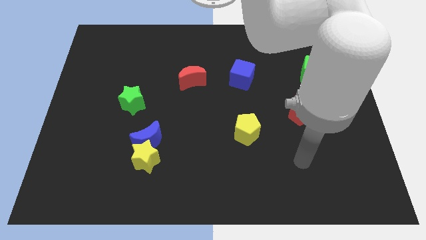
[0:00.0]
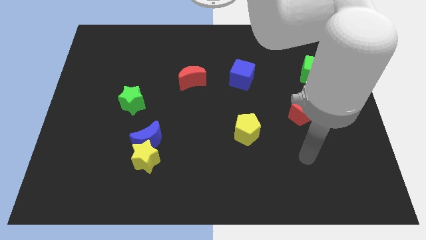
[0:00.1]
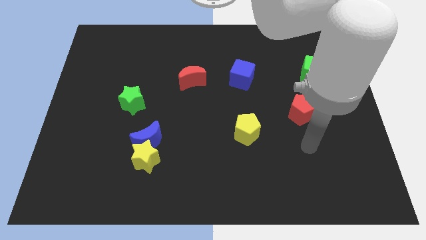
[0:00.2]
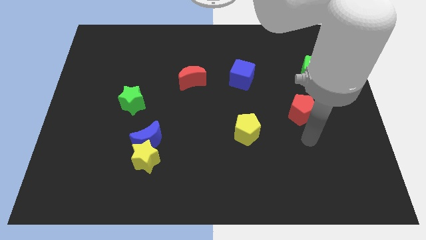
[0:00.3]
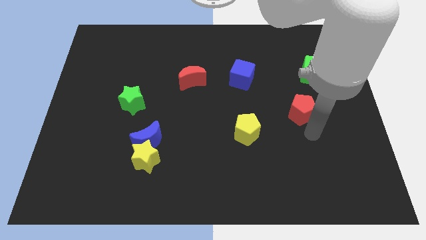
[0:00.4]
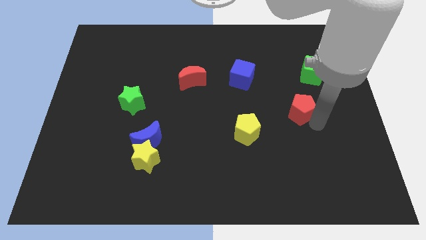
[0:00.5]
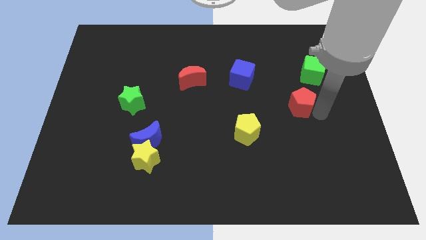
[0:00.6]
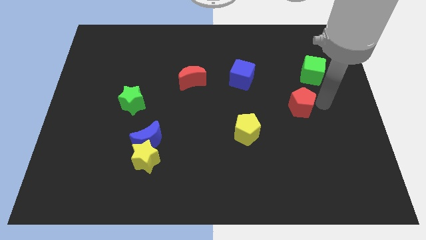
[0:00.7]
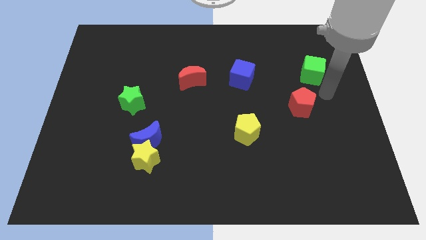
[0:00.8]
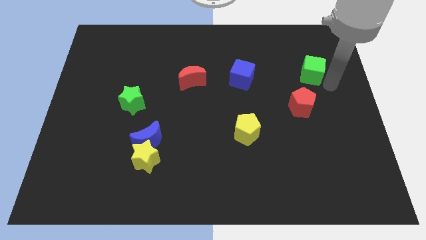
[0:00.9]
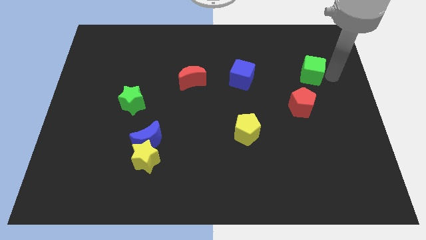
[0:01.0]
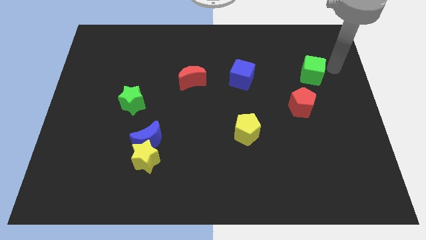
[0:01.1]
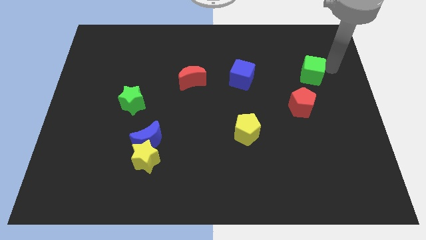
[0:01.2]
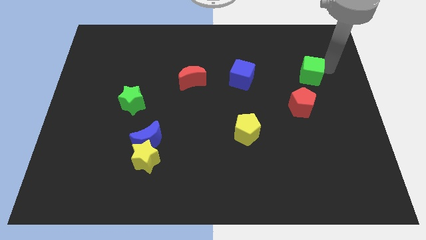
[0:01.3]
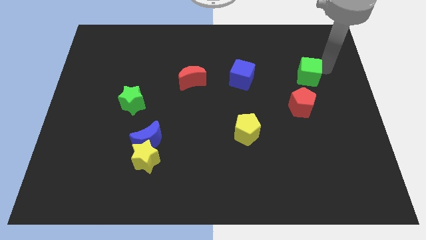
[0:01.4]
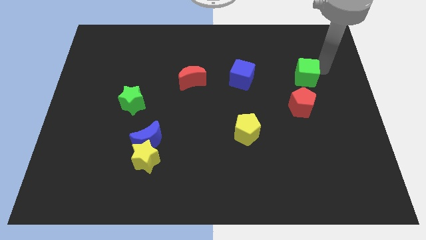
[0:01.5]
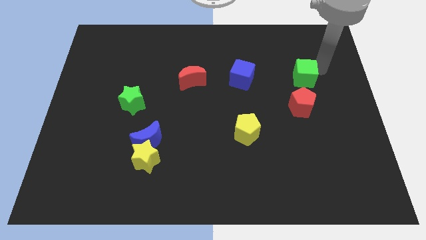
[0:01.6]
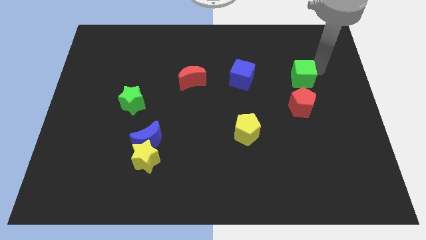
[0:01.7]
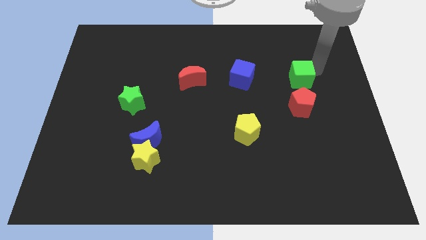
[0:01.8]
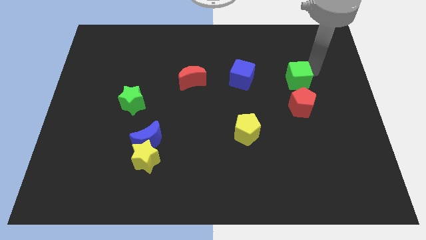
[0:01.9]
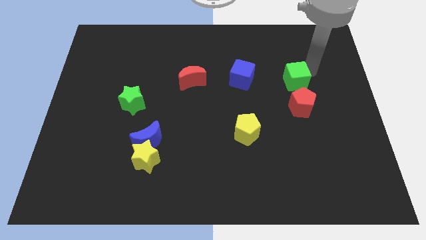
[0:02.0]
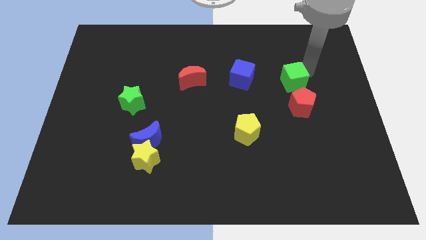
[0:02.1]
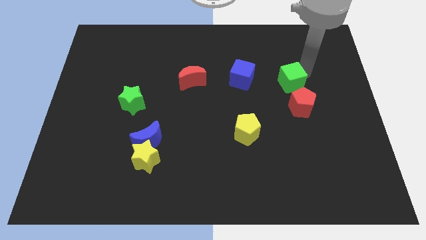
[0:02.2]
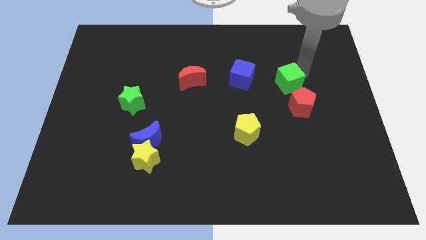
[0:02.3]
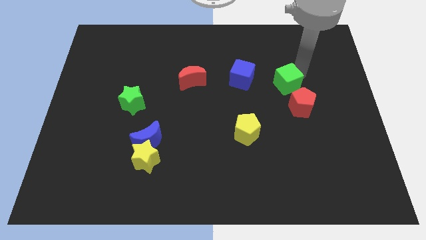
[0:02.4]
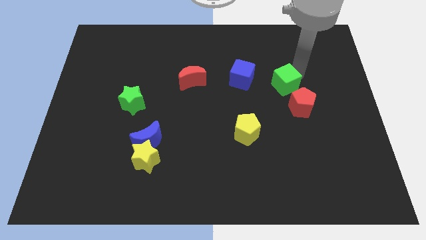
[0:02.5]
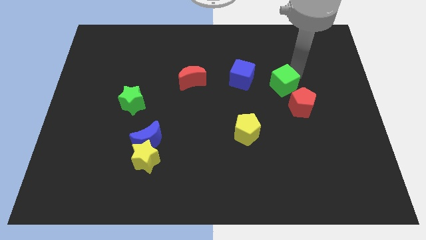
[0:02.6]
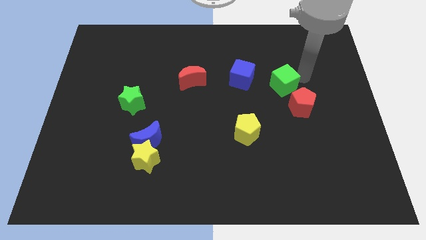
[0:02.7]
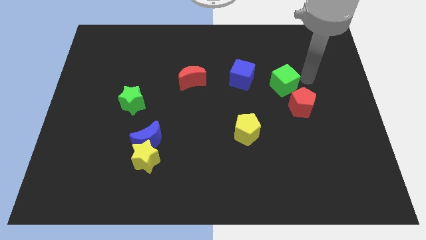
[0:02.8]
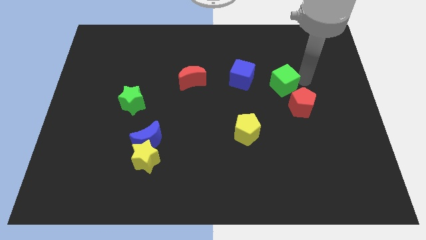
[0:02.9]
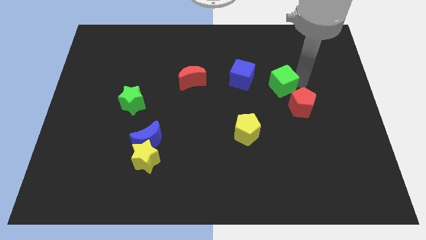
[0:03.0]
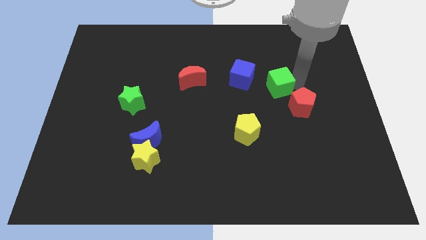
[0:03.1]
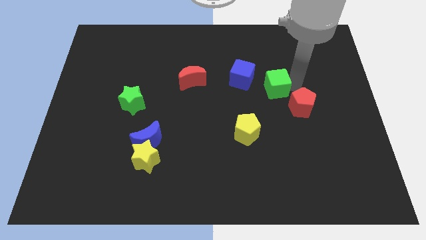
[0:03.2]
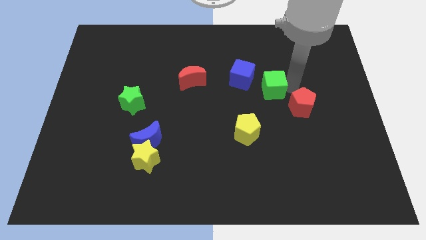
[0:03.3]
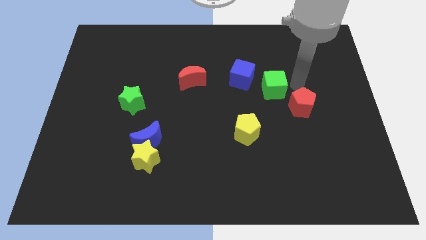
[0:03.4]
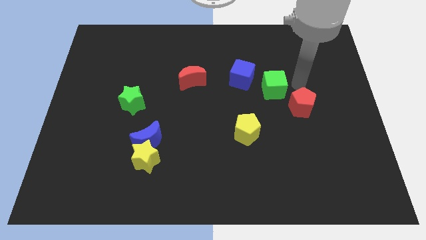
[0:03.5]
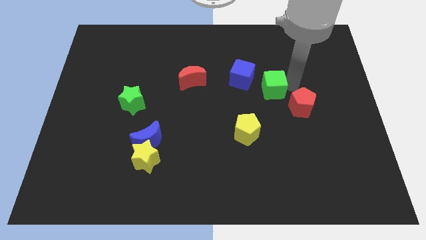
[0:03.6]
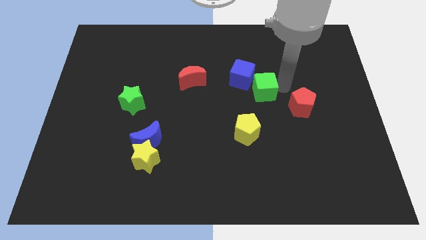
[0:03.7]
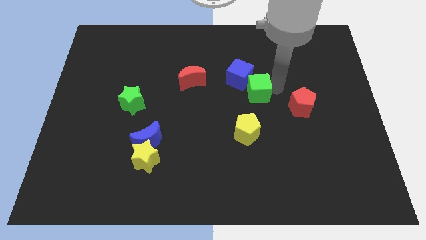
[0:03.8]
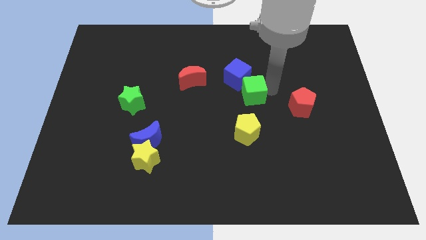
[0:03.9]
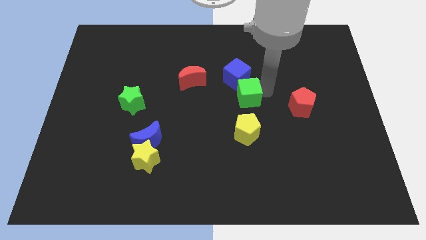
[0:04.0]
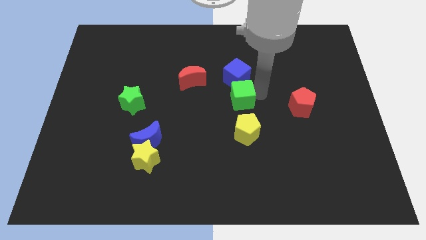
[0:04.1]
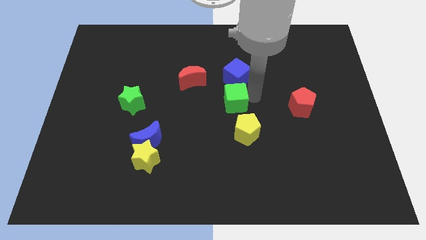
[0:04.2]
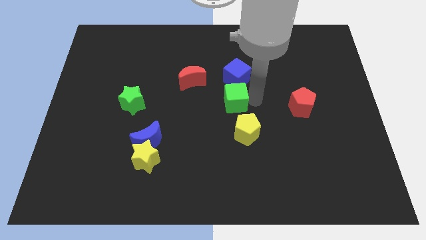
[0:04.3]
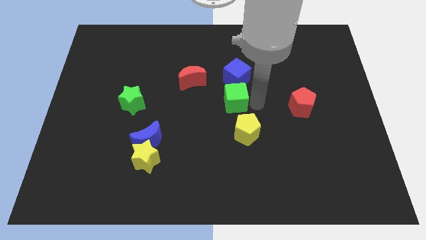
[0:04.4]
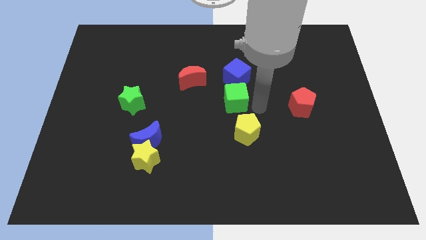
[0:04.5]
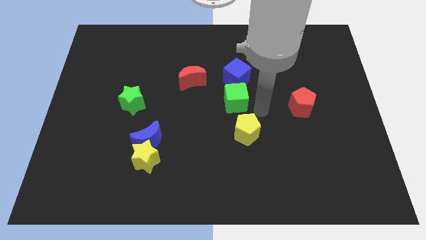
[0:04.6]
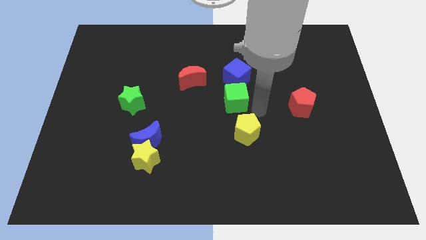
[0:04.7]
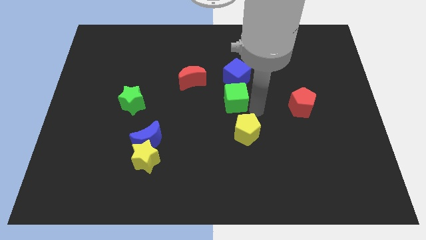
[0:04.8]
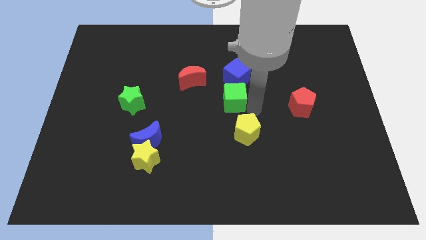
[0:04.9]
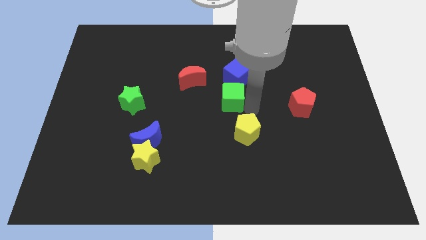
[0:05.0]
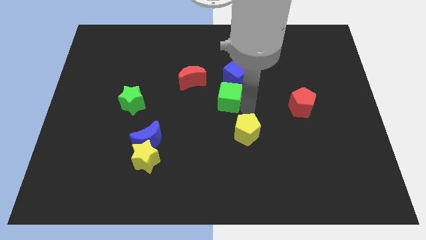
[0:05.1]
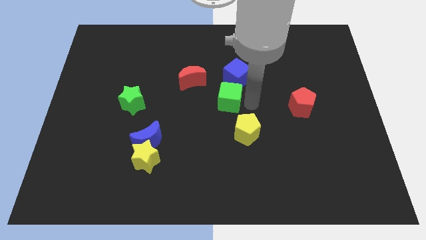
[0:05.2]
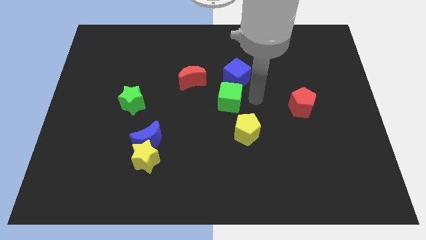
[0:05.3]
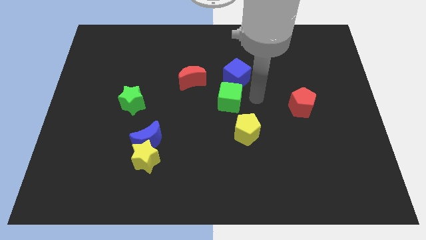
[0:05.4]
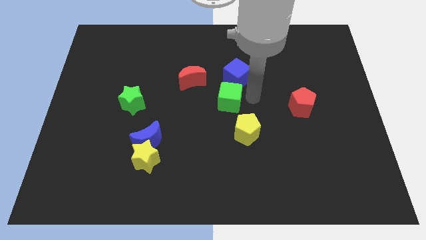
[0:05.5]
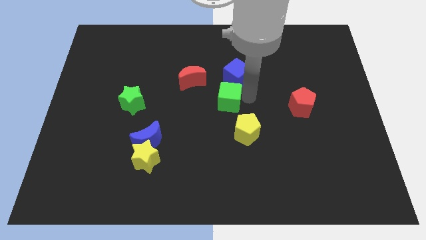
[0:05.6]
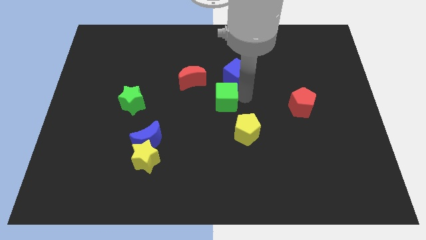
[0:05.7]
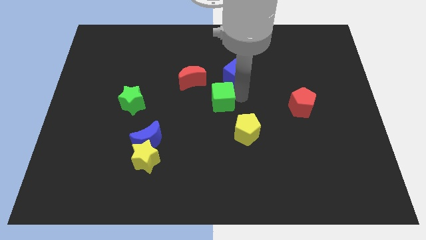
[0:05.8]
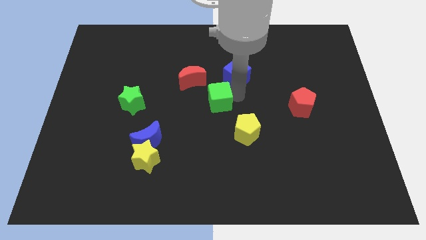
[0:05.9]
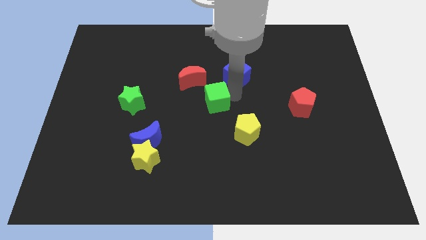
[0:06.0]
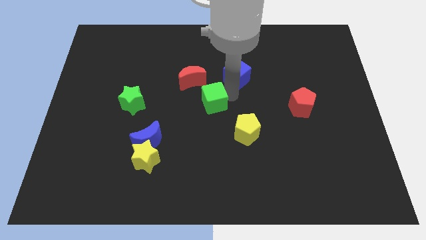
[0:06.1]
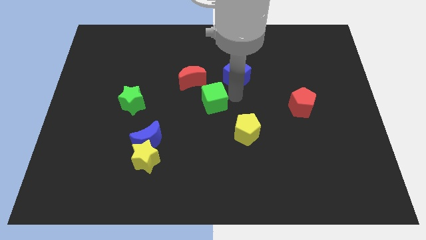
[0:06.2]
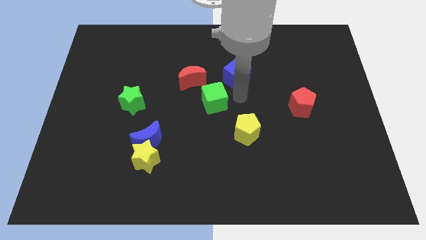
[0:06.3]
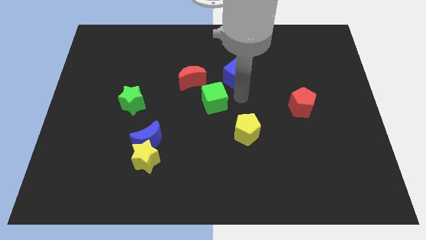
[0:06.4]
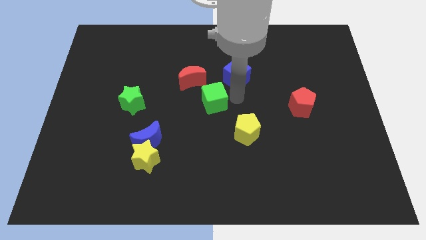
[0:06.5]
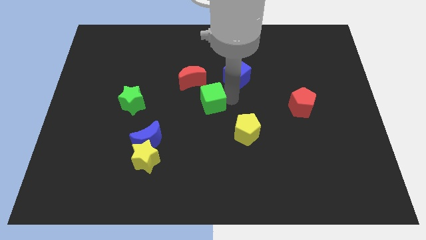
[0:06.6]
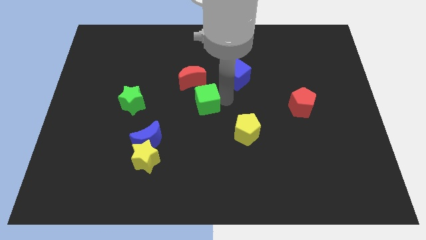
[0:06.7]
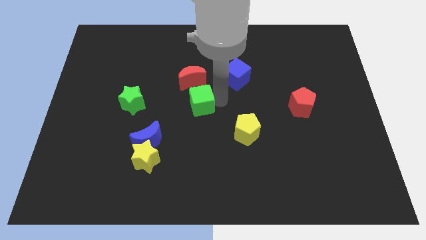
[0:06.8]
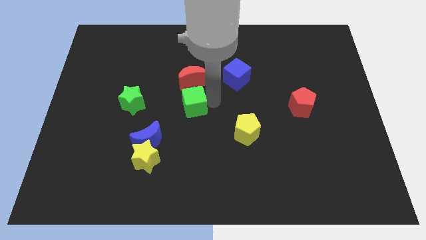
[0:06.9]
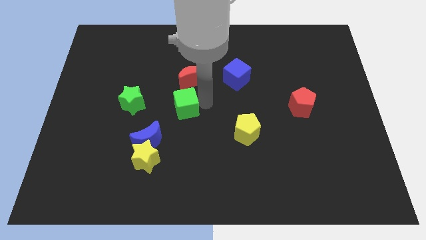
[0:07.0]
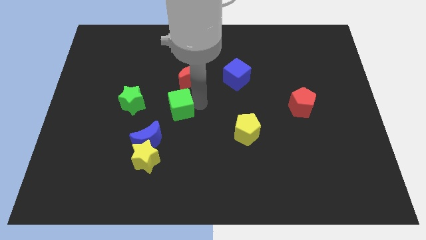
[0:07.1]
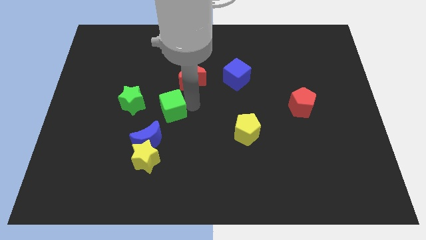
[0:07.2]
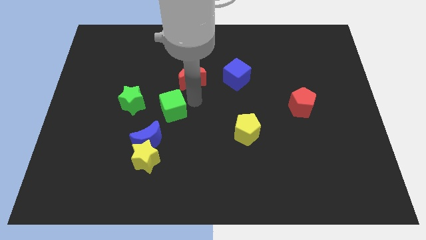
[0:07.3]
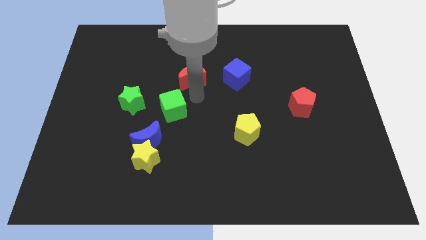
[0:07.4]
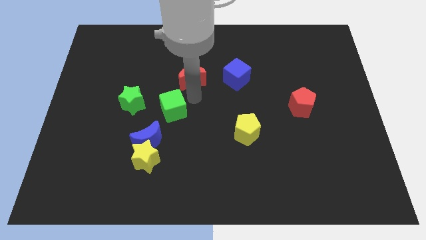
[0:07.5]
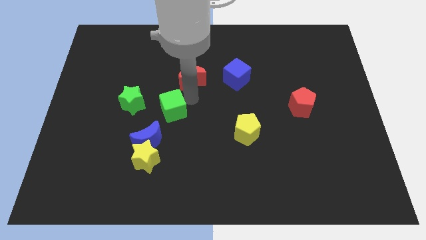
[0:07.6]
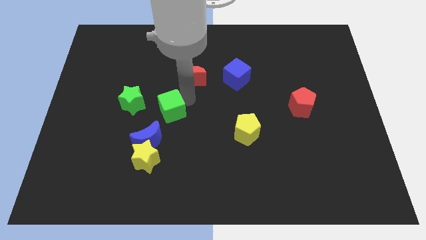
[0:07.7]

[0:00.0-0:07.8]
slide the green cube to the bottom right of the green star
